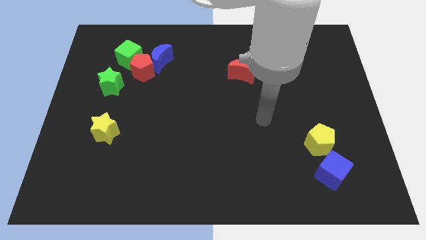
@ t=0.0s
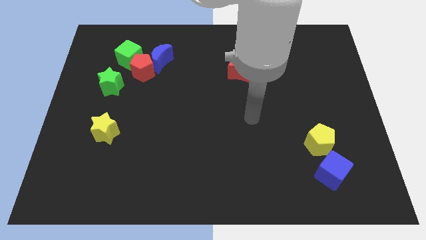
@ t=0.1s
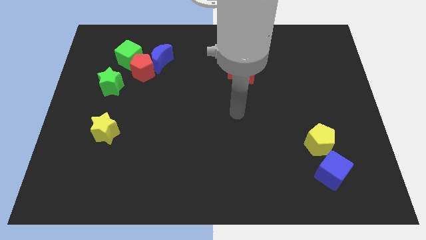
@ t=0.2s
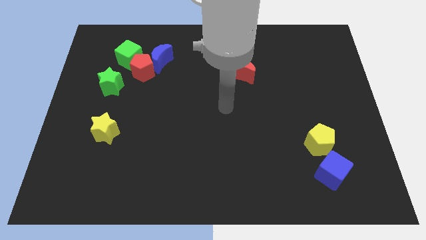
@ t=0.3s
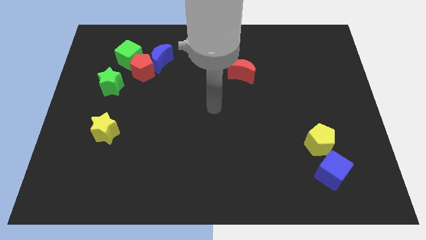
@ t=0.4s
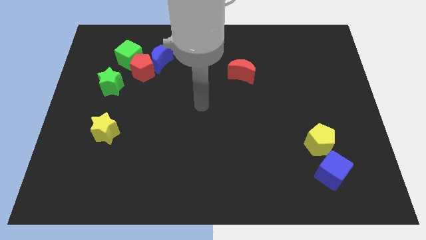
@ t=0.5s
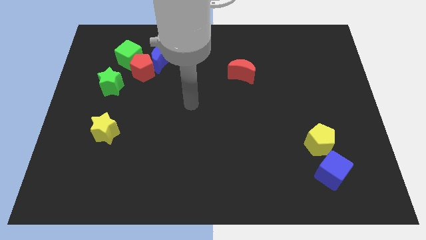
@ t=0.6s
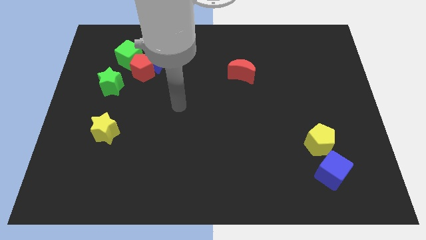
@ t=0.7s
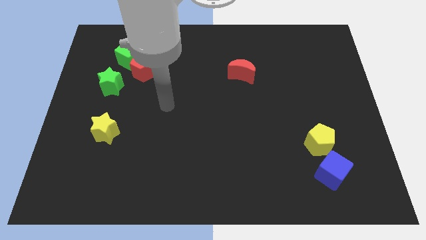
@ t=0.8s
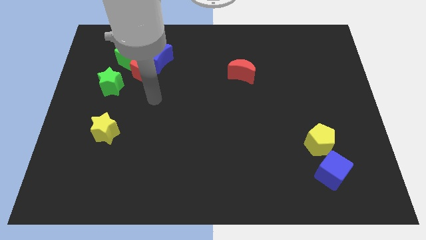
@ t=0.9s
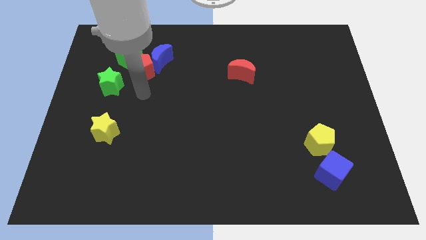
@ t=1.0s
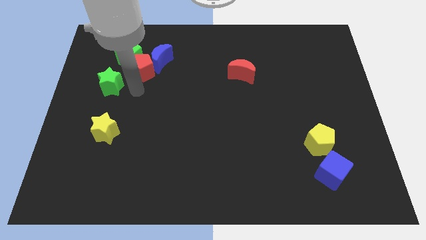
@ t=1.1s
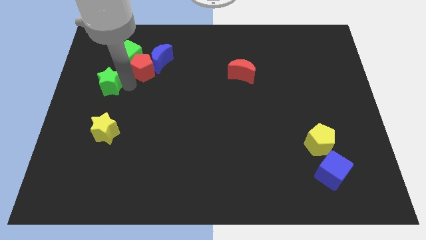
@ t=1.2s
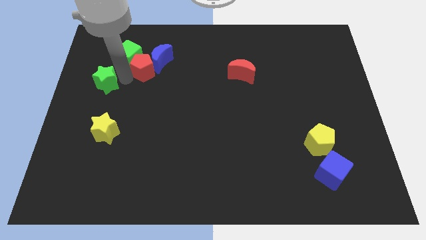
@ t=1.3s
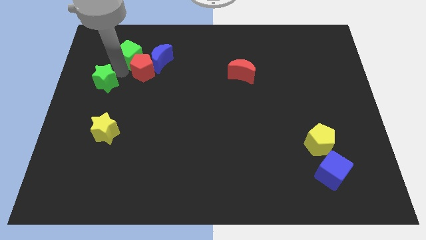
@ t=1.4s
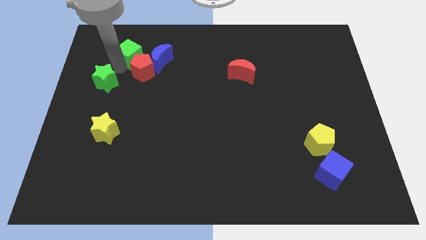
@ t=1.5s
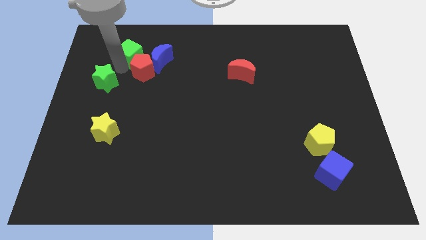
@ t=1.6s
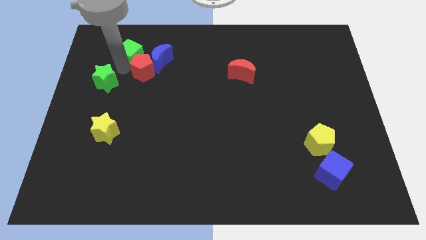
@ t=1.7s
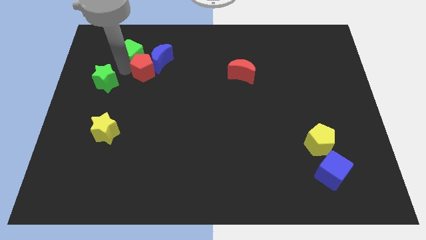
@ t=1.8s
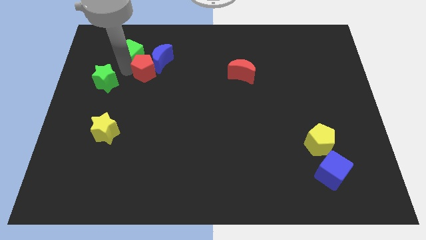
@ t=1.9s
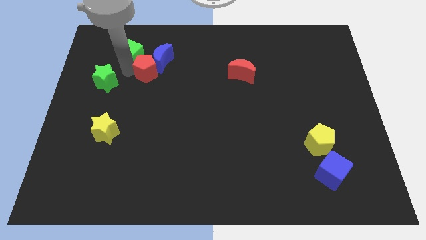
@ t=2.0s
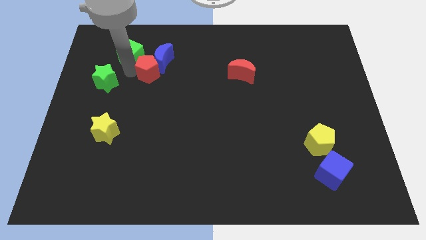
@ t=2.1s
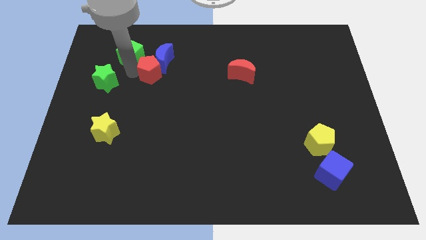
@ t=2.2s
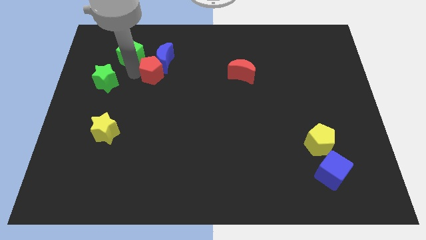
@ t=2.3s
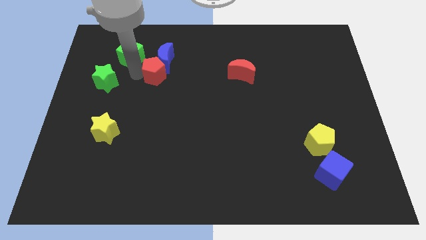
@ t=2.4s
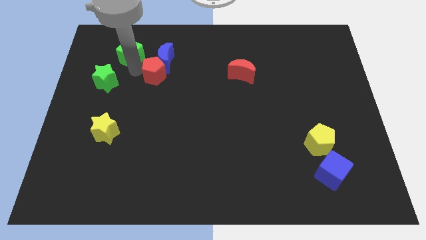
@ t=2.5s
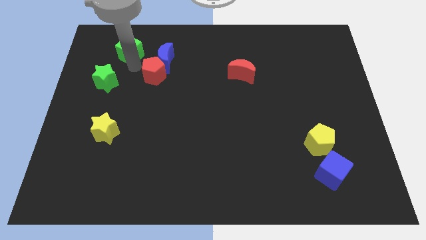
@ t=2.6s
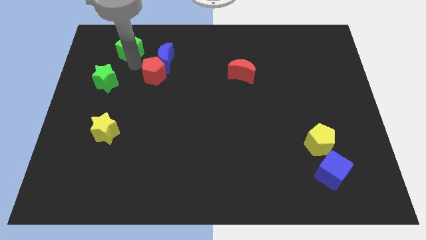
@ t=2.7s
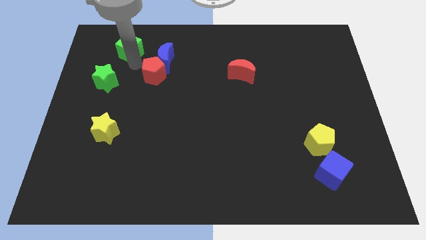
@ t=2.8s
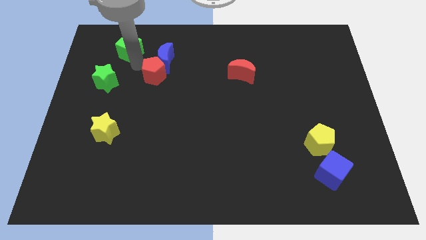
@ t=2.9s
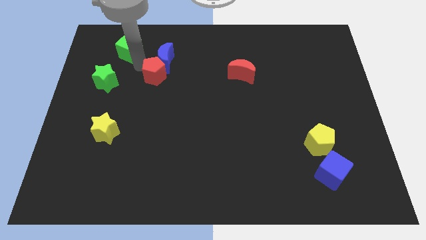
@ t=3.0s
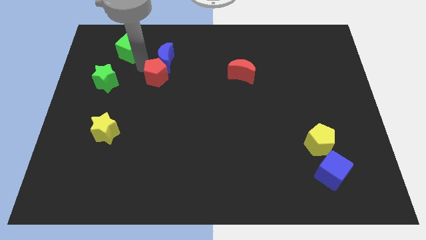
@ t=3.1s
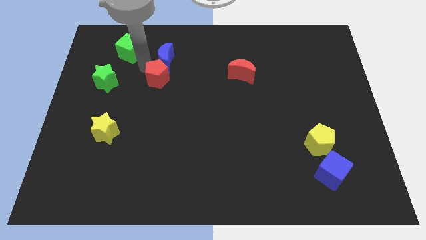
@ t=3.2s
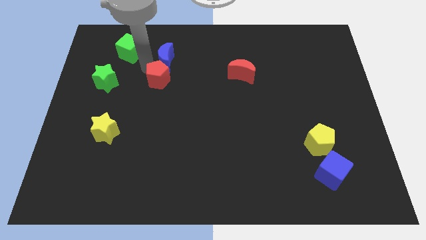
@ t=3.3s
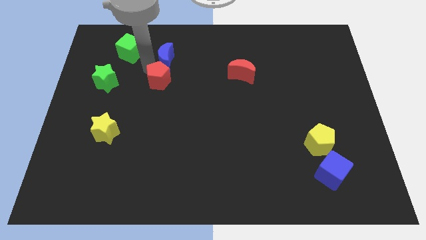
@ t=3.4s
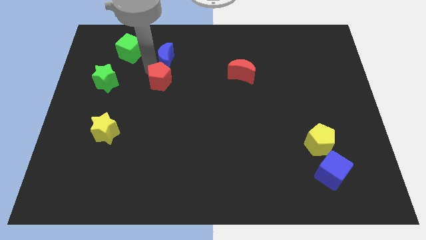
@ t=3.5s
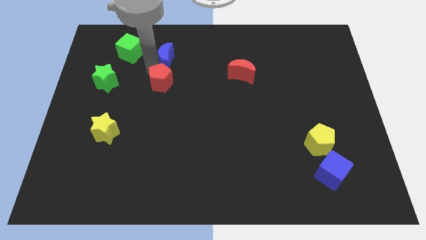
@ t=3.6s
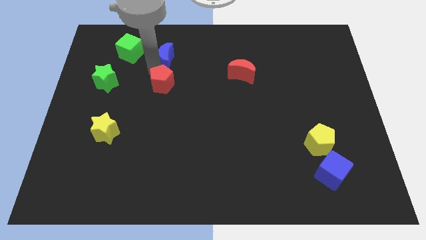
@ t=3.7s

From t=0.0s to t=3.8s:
pull the red pentagon apart from the blue moon, green cube, and green star

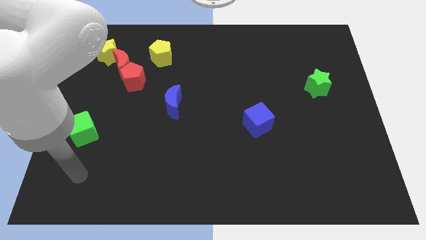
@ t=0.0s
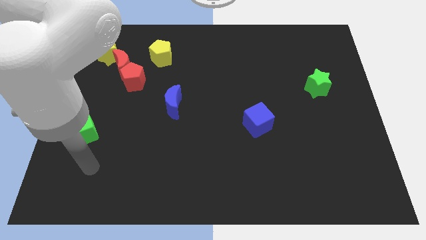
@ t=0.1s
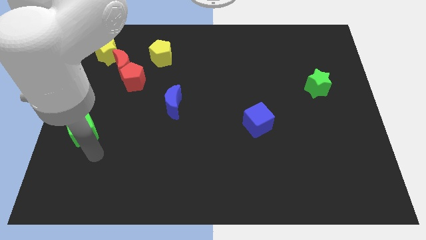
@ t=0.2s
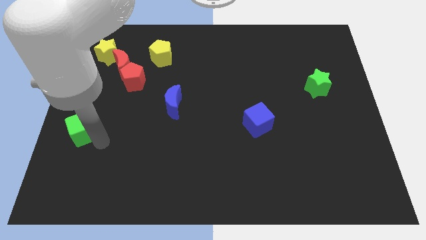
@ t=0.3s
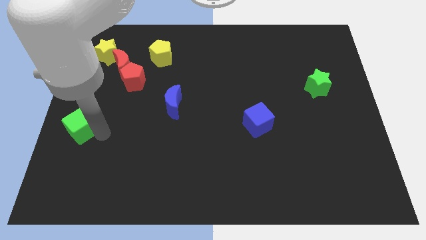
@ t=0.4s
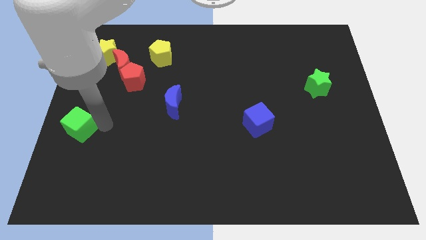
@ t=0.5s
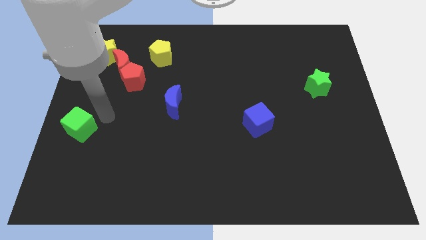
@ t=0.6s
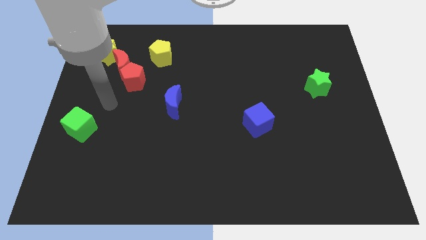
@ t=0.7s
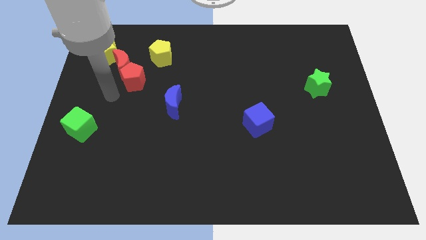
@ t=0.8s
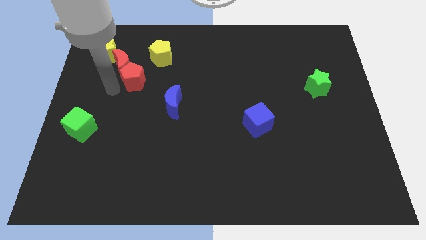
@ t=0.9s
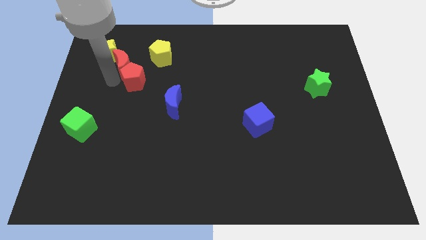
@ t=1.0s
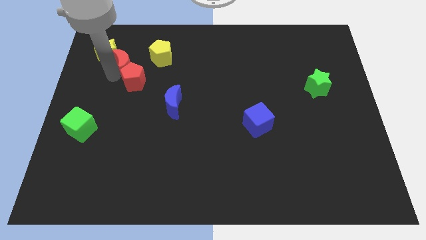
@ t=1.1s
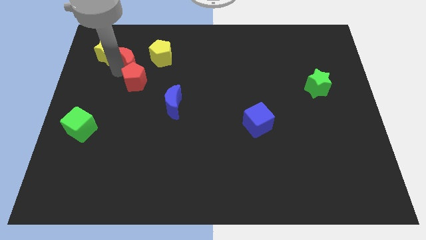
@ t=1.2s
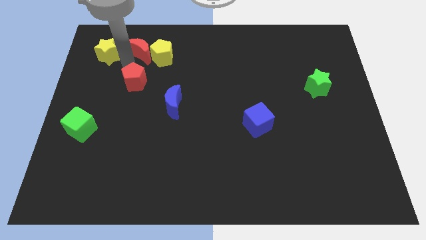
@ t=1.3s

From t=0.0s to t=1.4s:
separate the red pentagon from the red moon

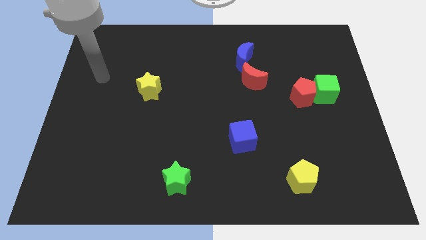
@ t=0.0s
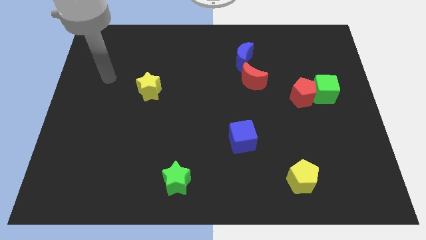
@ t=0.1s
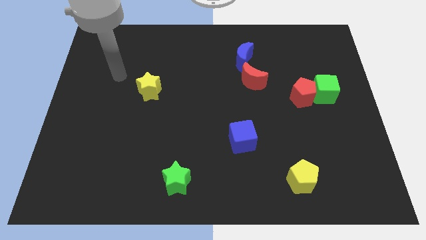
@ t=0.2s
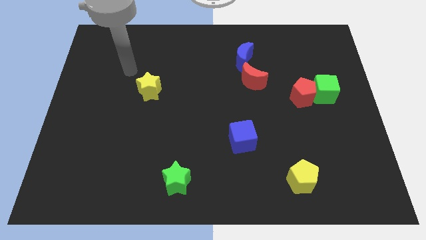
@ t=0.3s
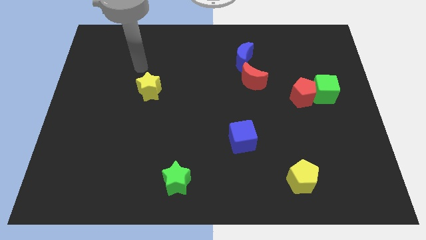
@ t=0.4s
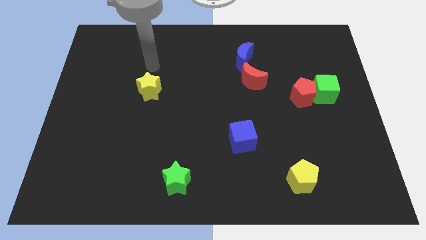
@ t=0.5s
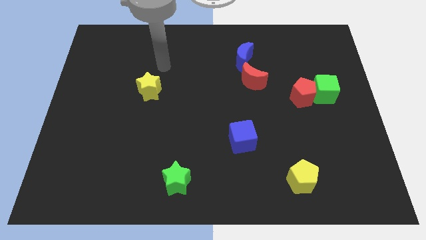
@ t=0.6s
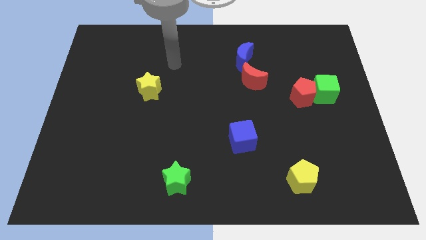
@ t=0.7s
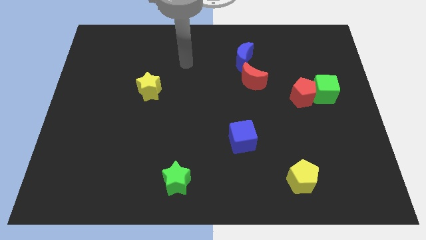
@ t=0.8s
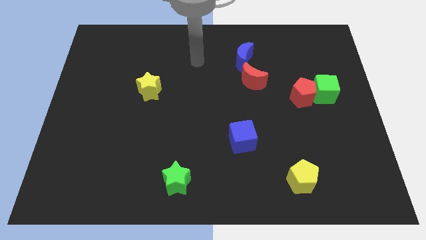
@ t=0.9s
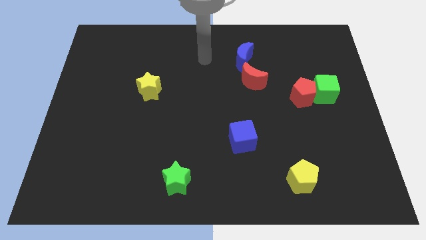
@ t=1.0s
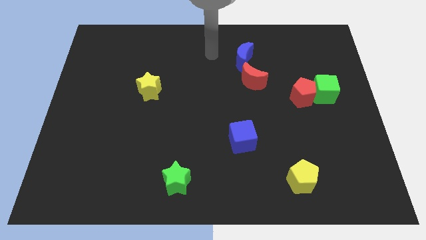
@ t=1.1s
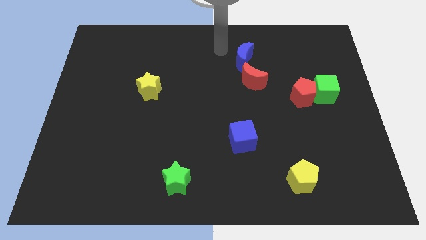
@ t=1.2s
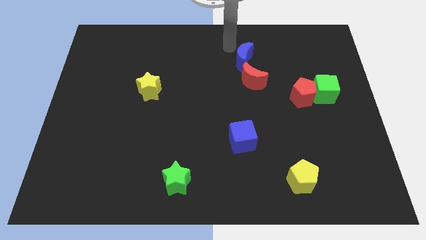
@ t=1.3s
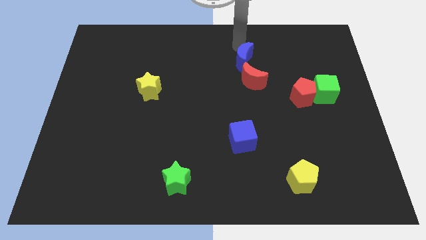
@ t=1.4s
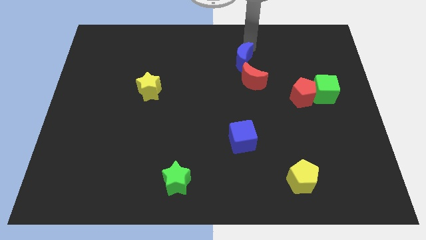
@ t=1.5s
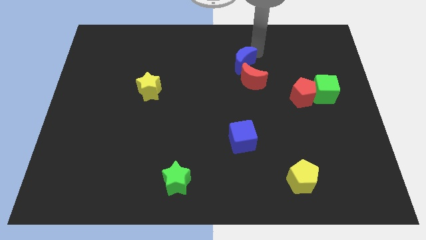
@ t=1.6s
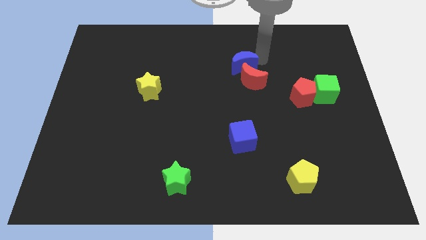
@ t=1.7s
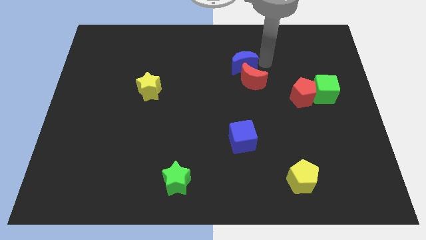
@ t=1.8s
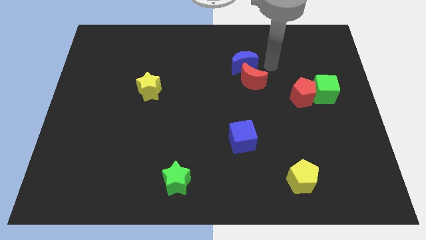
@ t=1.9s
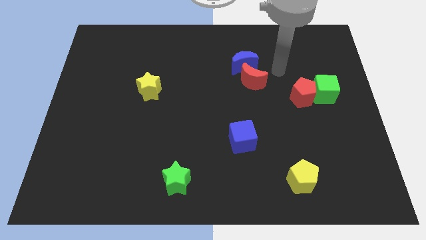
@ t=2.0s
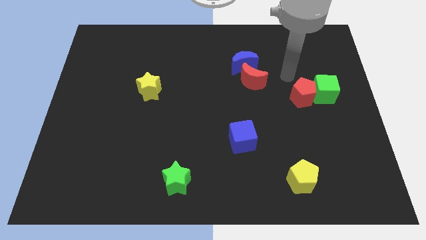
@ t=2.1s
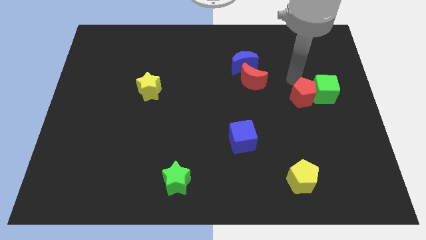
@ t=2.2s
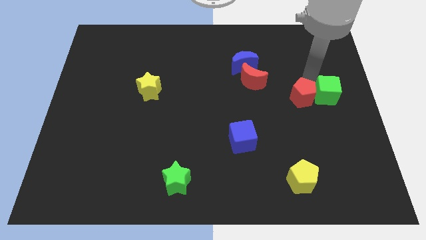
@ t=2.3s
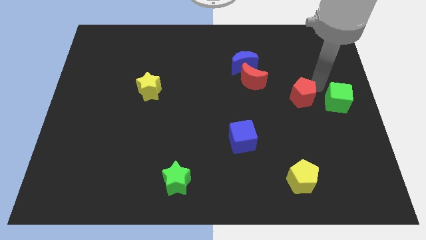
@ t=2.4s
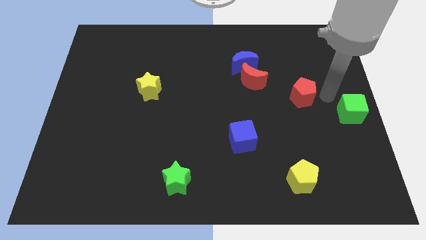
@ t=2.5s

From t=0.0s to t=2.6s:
separate the red pentagon from the green cube

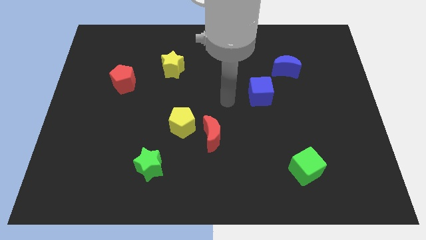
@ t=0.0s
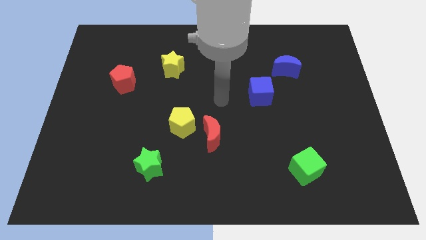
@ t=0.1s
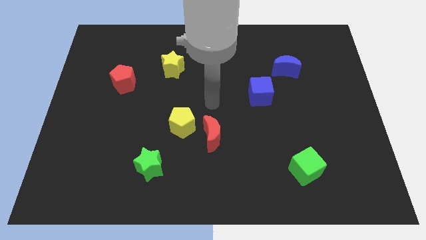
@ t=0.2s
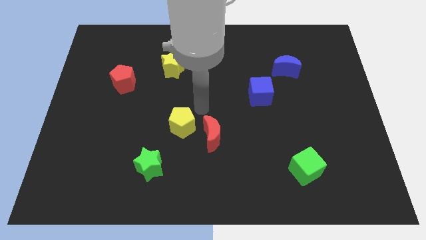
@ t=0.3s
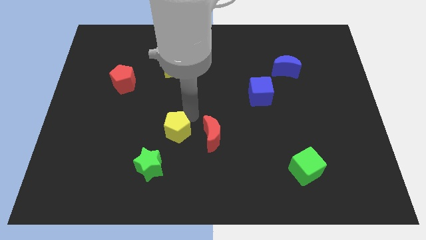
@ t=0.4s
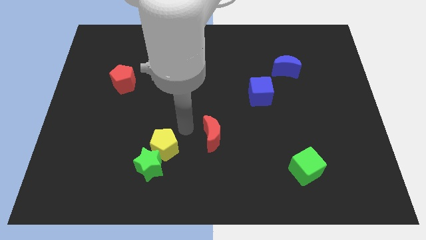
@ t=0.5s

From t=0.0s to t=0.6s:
separate the red moon from the yellow pentagon

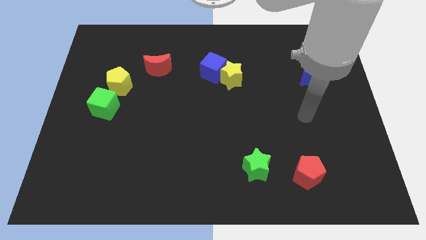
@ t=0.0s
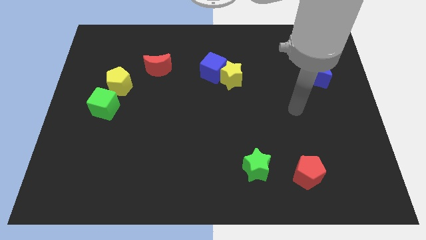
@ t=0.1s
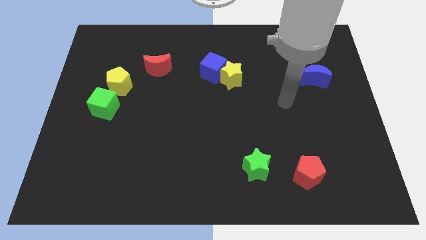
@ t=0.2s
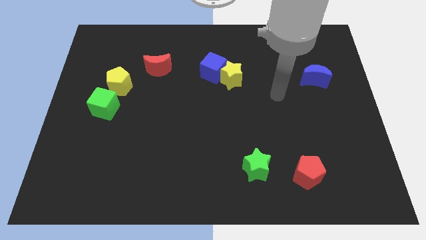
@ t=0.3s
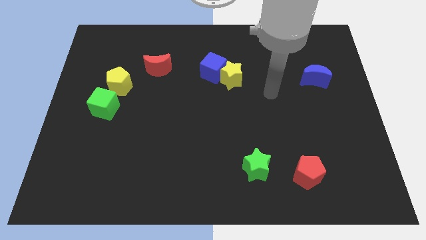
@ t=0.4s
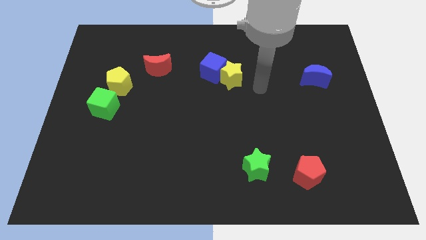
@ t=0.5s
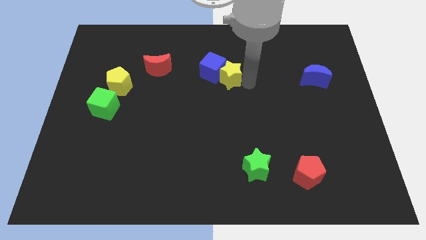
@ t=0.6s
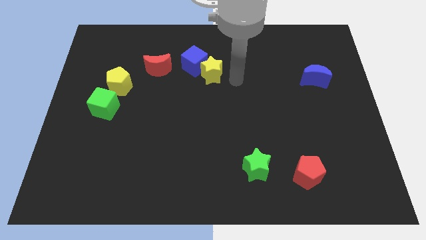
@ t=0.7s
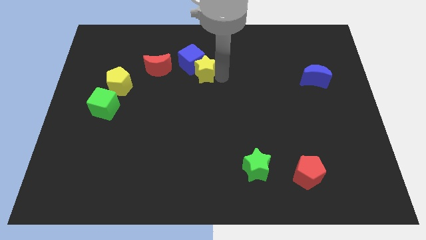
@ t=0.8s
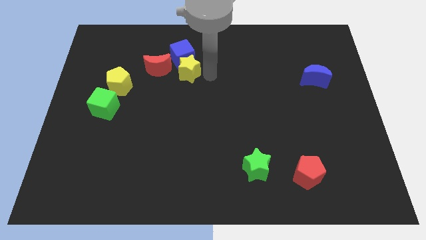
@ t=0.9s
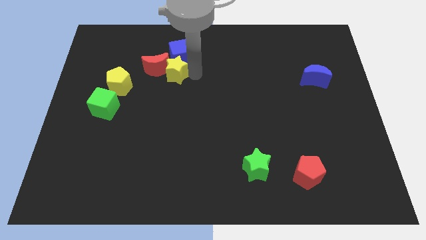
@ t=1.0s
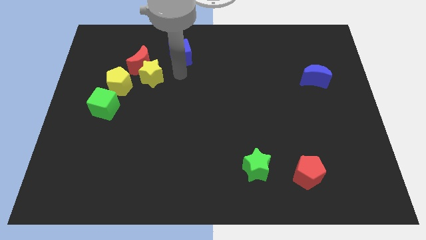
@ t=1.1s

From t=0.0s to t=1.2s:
separate the blue cube from the yellow star
